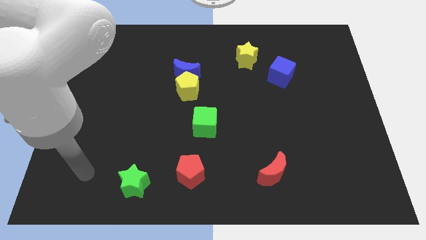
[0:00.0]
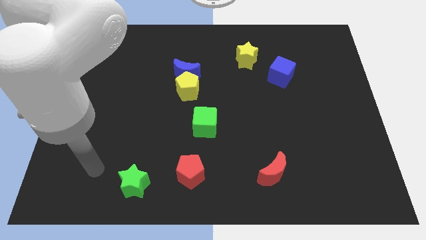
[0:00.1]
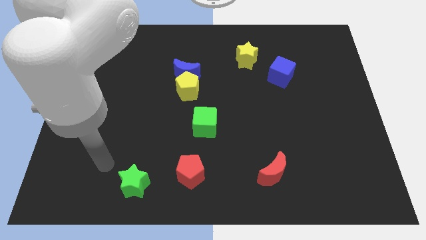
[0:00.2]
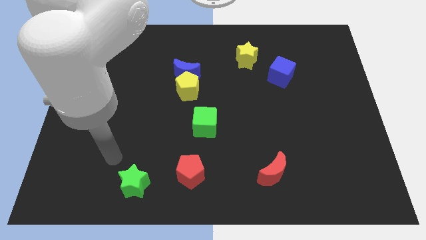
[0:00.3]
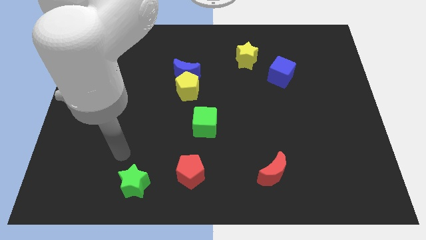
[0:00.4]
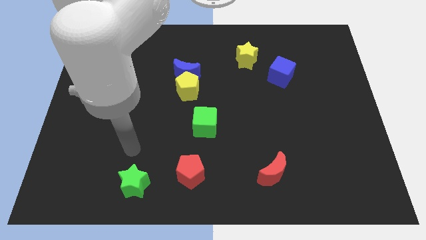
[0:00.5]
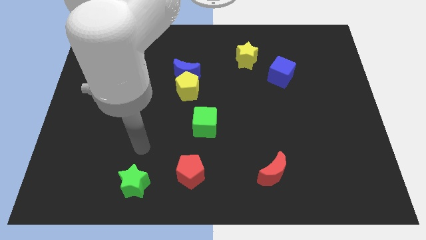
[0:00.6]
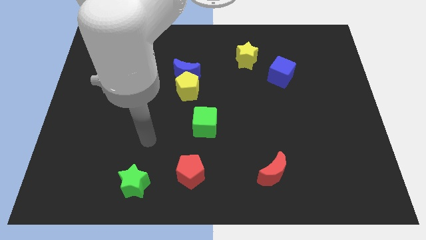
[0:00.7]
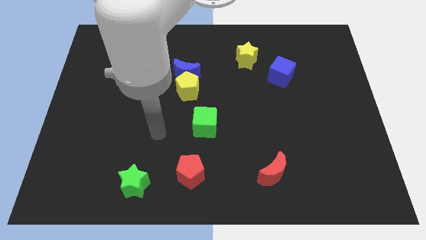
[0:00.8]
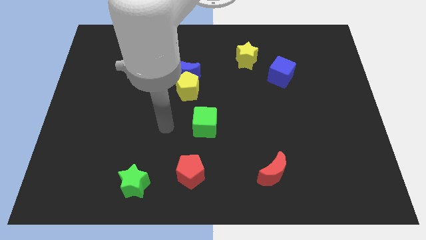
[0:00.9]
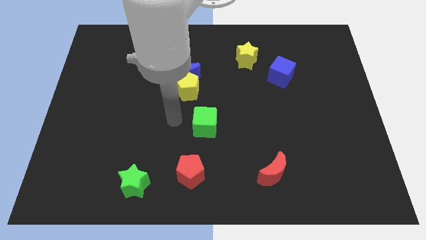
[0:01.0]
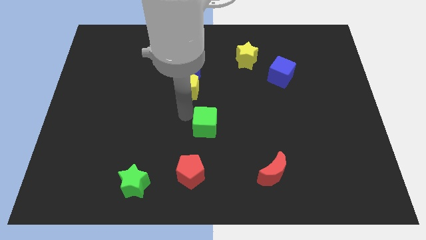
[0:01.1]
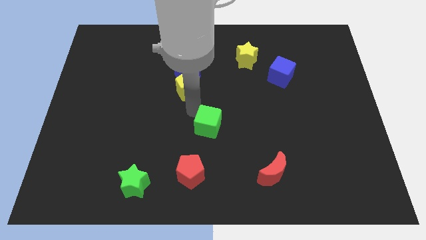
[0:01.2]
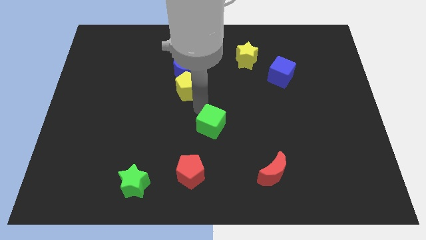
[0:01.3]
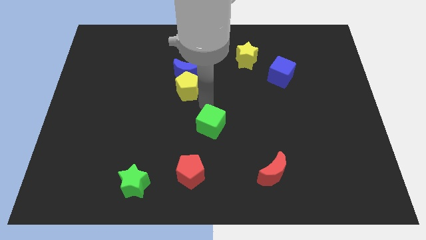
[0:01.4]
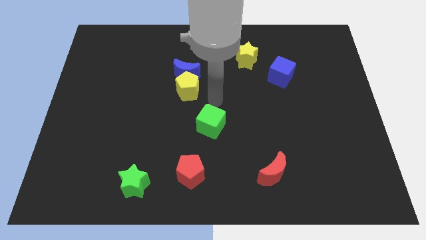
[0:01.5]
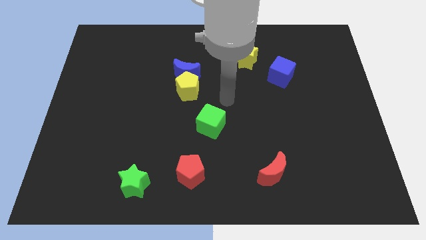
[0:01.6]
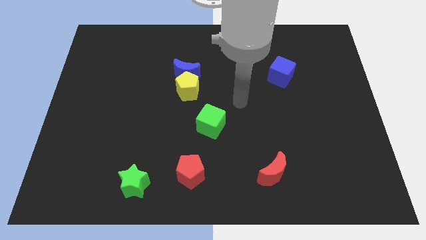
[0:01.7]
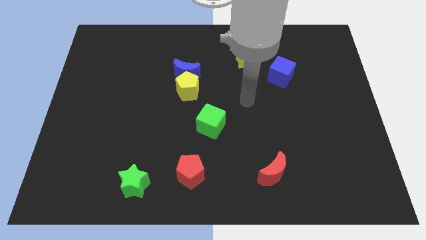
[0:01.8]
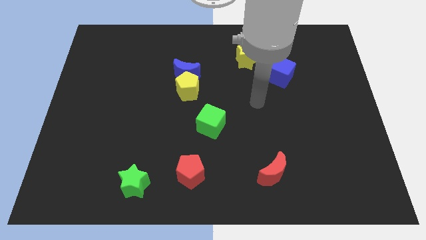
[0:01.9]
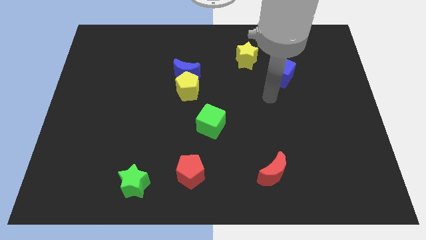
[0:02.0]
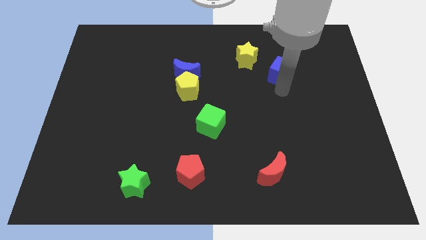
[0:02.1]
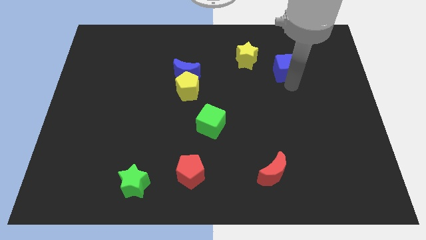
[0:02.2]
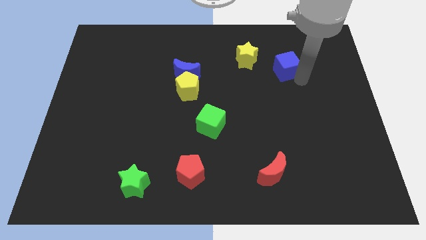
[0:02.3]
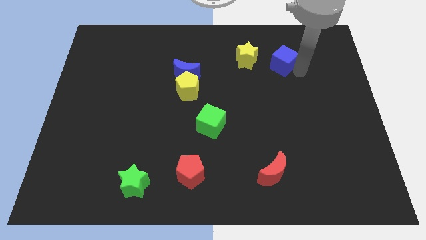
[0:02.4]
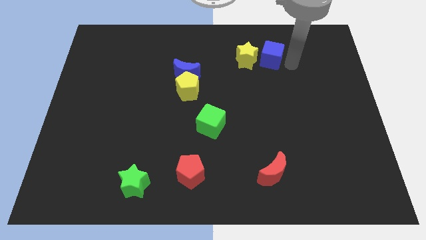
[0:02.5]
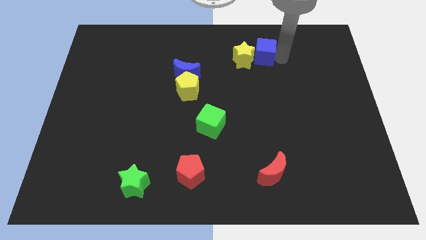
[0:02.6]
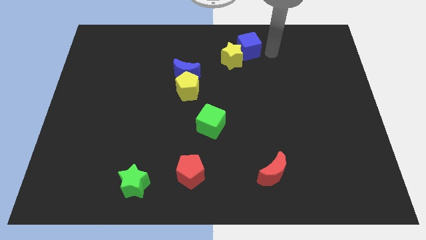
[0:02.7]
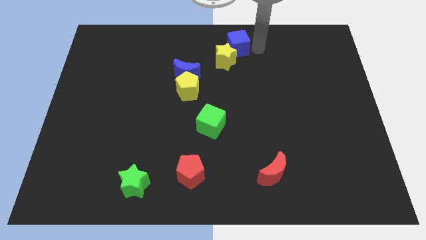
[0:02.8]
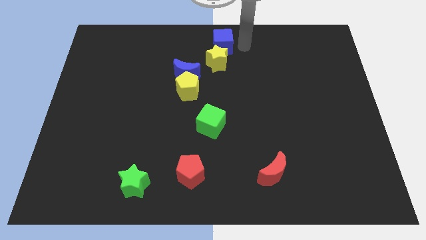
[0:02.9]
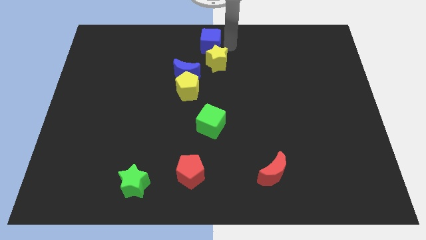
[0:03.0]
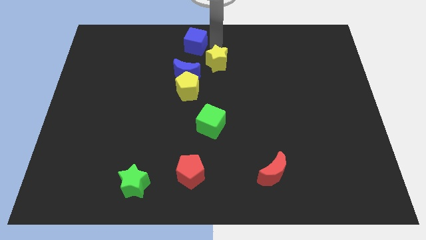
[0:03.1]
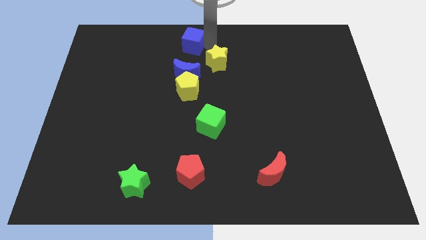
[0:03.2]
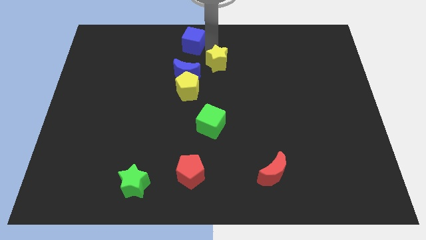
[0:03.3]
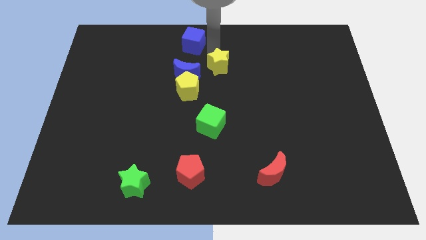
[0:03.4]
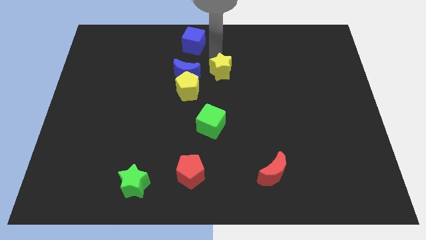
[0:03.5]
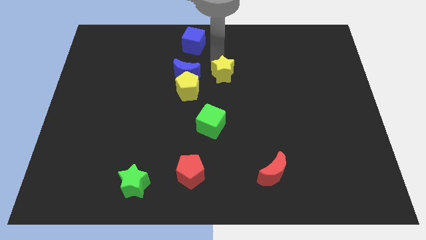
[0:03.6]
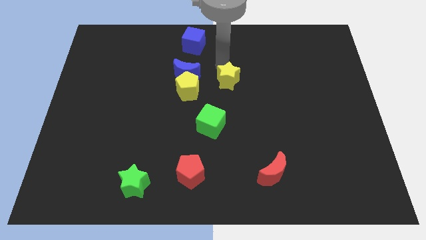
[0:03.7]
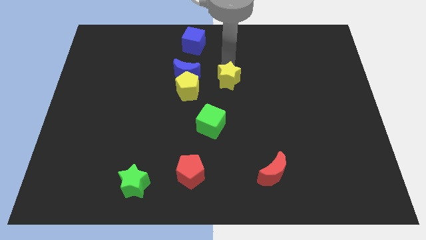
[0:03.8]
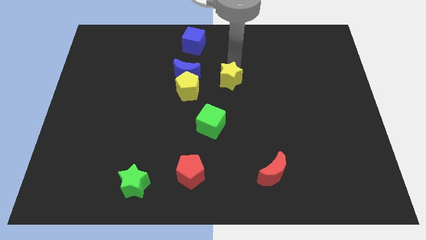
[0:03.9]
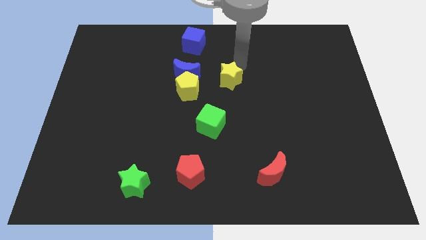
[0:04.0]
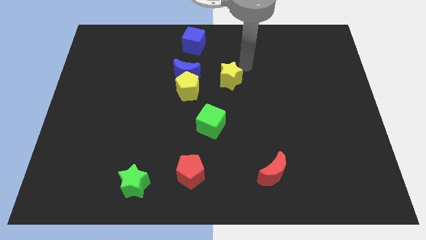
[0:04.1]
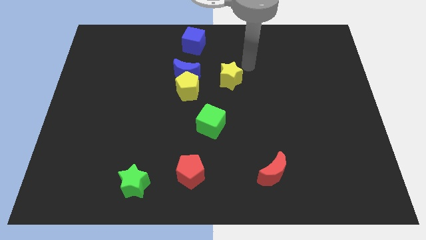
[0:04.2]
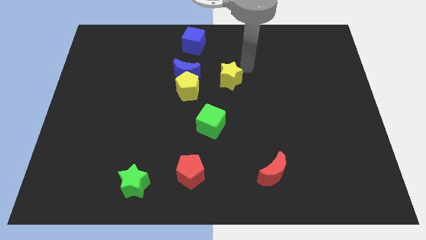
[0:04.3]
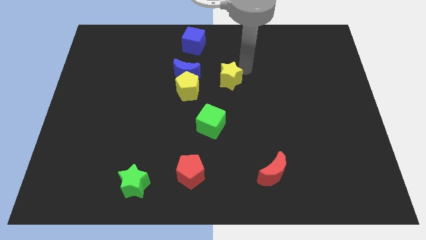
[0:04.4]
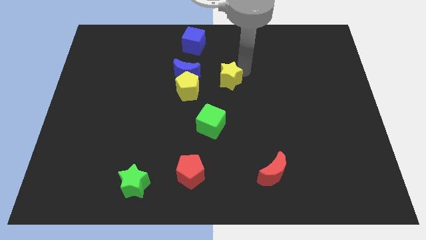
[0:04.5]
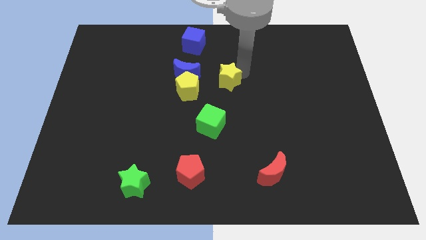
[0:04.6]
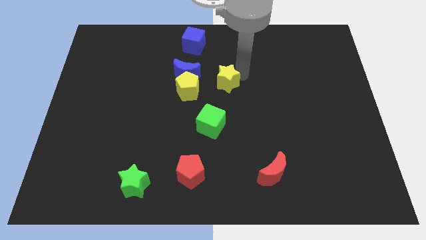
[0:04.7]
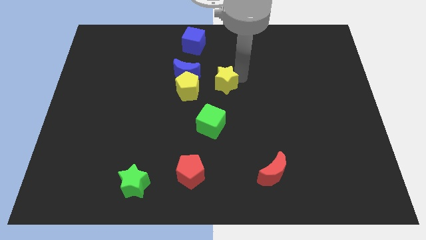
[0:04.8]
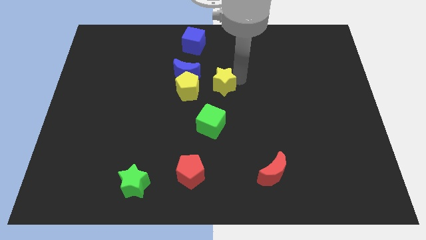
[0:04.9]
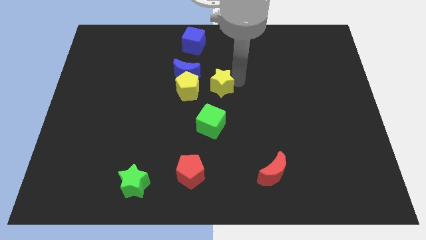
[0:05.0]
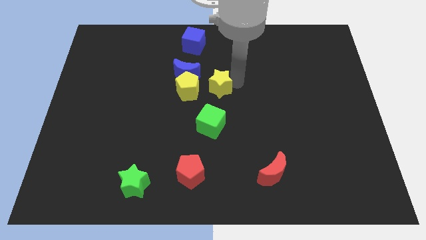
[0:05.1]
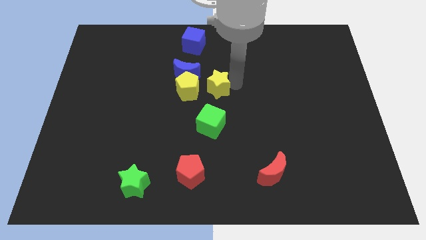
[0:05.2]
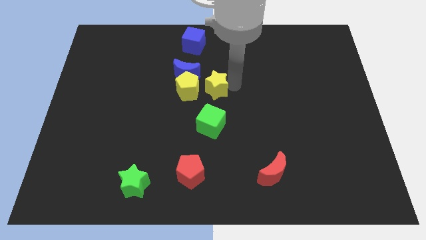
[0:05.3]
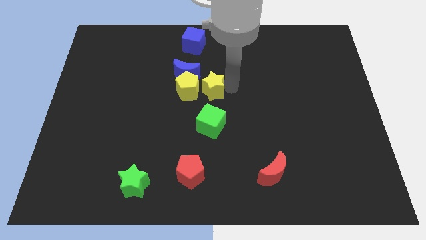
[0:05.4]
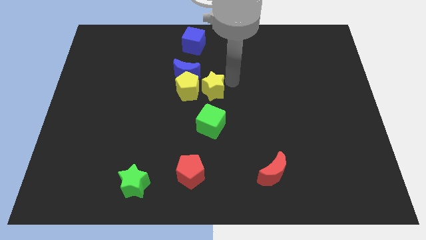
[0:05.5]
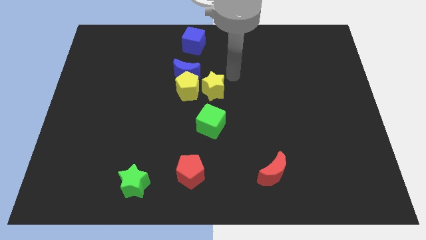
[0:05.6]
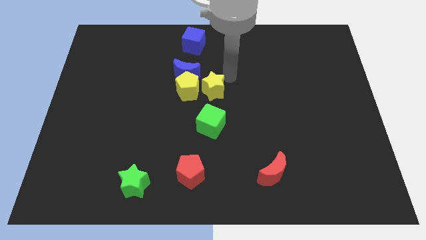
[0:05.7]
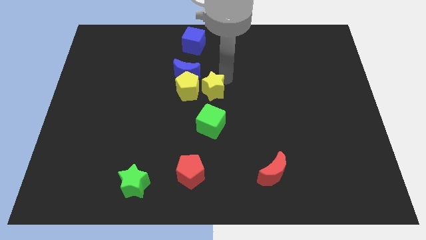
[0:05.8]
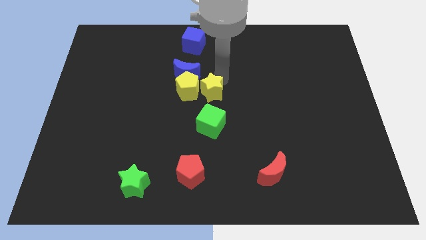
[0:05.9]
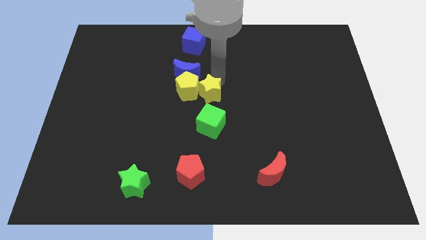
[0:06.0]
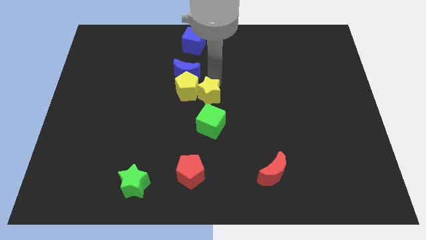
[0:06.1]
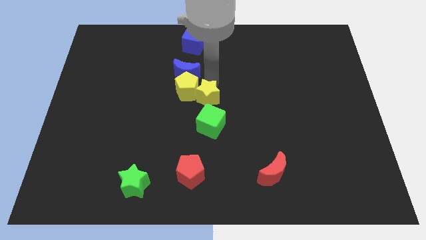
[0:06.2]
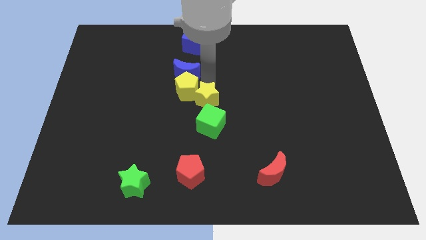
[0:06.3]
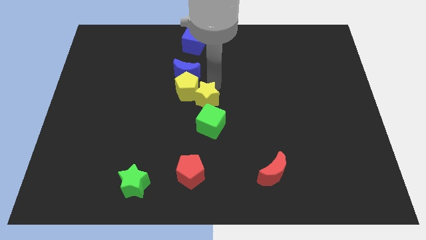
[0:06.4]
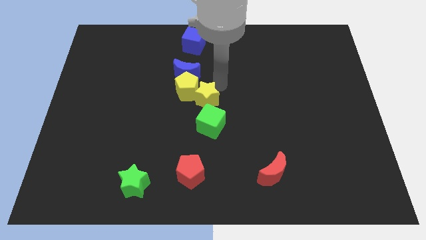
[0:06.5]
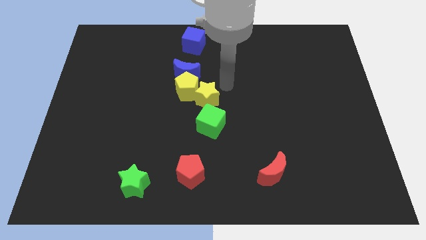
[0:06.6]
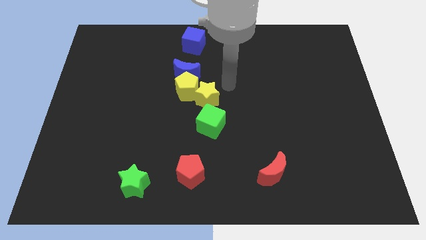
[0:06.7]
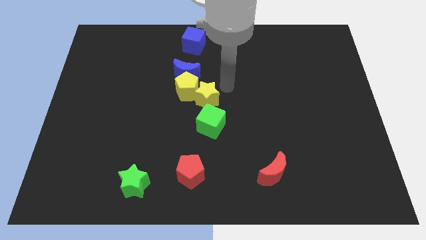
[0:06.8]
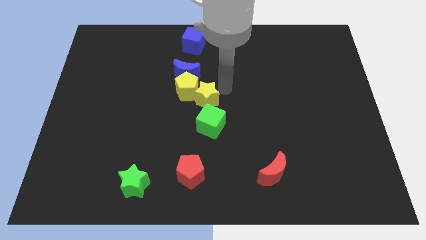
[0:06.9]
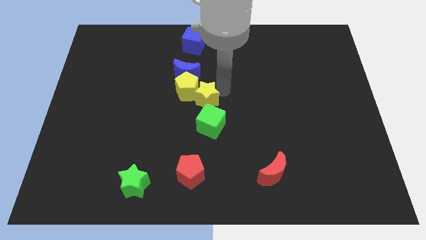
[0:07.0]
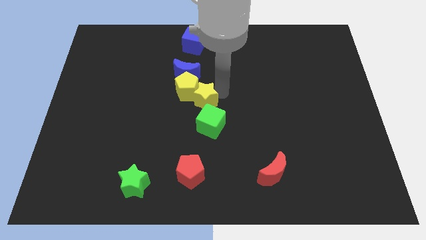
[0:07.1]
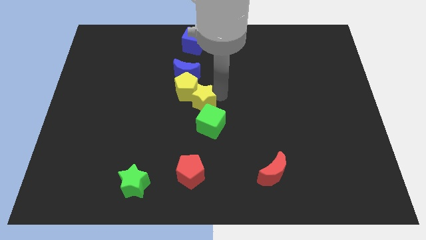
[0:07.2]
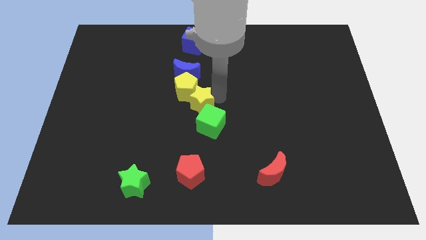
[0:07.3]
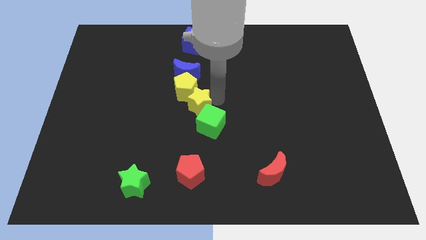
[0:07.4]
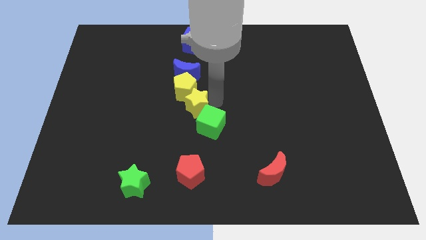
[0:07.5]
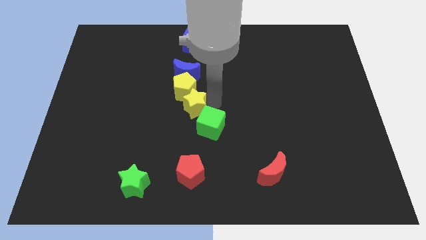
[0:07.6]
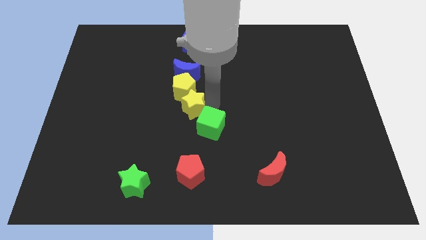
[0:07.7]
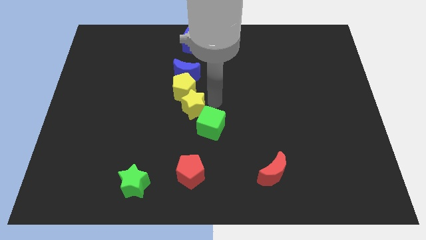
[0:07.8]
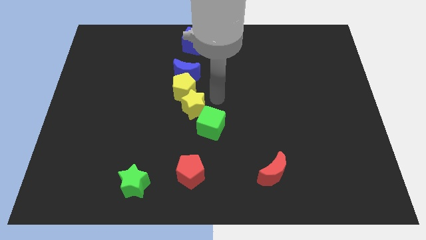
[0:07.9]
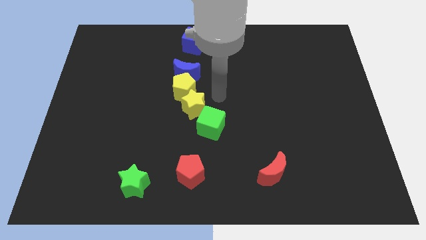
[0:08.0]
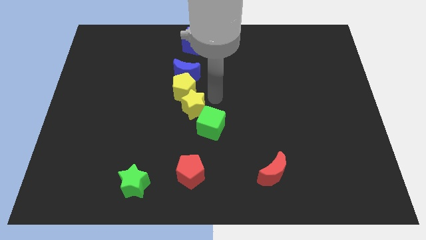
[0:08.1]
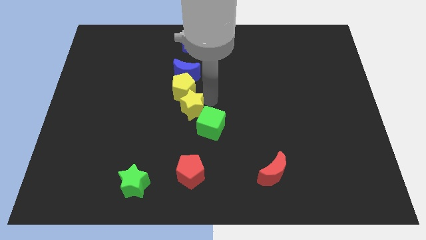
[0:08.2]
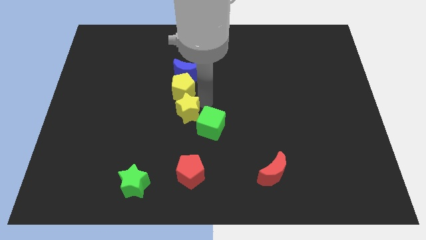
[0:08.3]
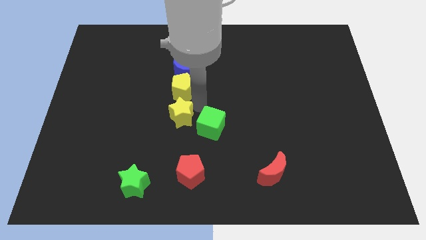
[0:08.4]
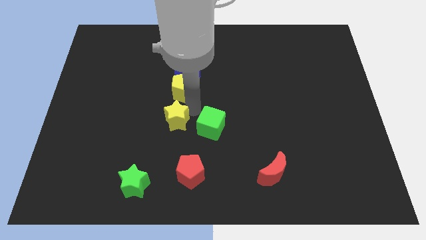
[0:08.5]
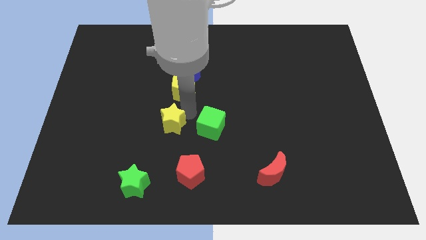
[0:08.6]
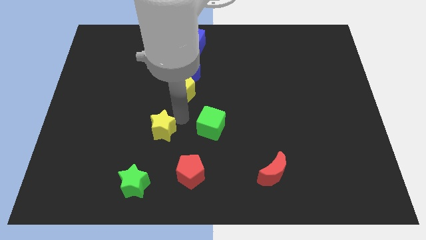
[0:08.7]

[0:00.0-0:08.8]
slide the yellow star above the green star
